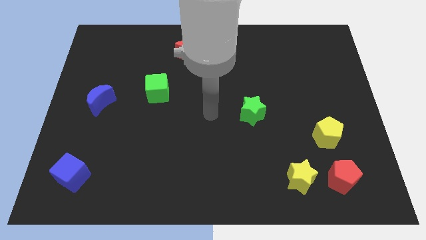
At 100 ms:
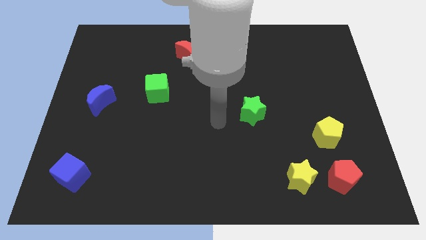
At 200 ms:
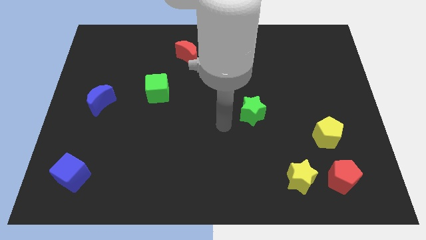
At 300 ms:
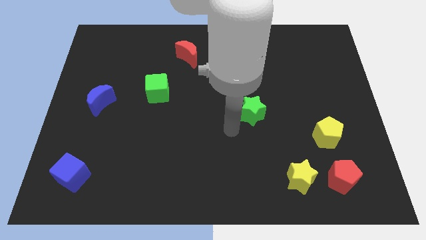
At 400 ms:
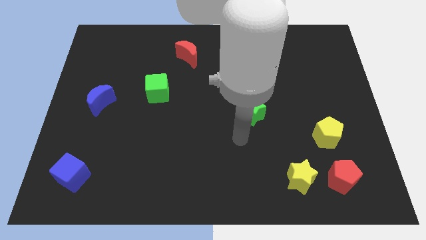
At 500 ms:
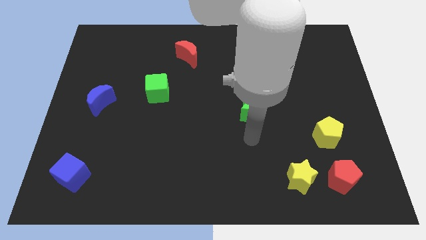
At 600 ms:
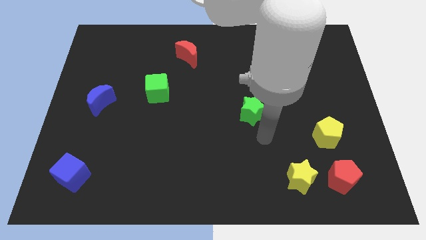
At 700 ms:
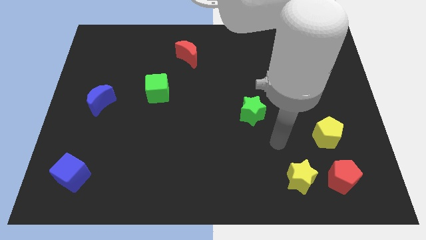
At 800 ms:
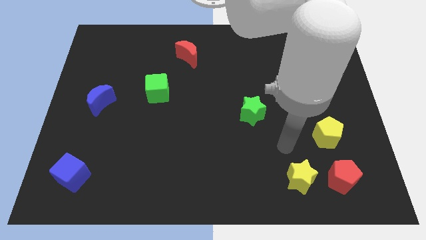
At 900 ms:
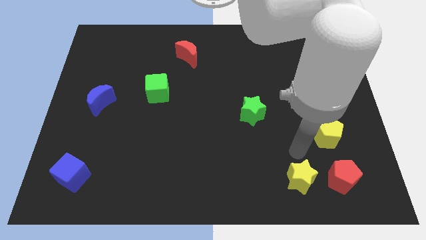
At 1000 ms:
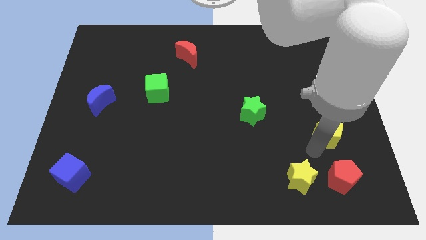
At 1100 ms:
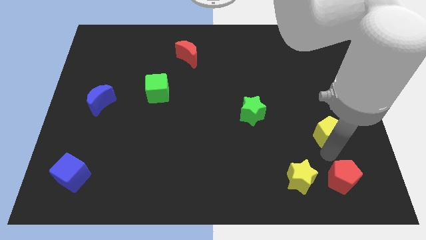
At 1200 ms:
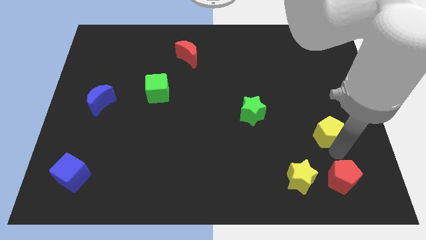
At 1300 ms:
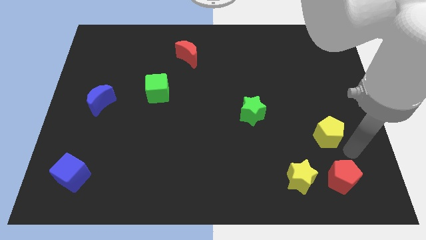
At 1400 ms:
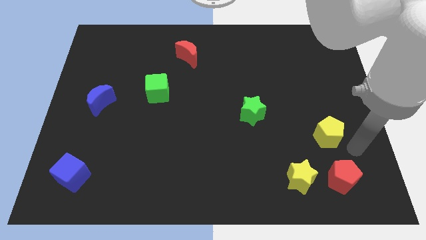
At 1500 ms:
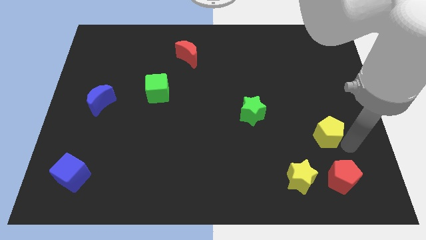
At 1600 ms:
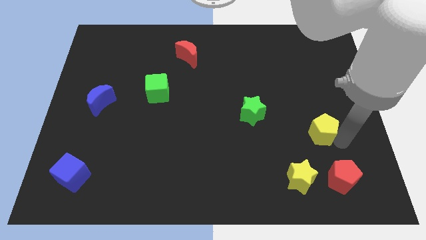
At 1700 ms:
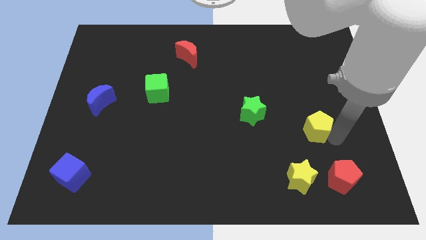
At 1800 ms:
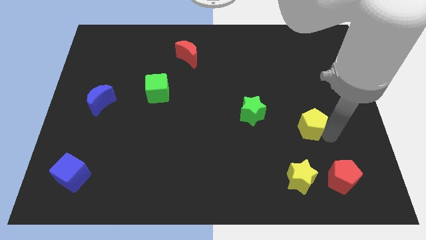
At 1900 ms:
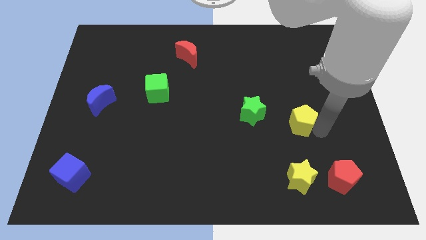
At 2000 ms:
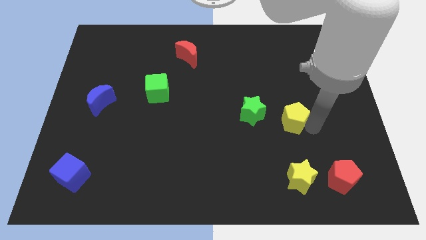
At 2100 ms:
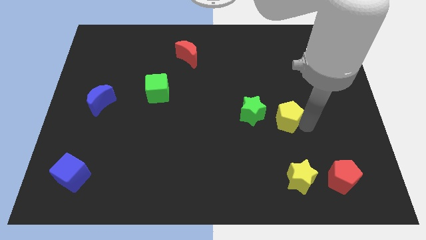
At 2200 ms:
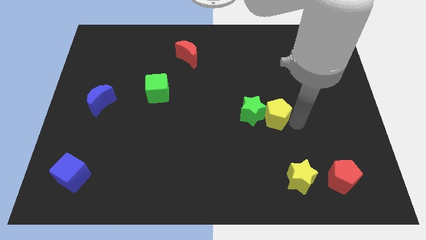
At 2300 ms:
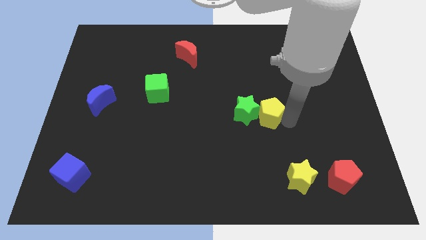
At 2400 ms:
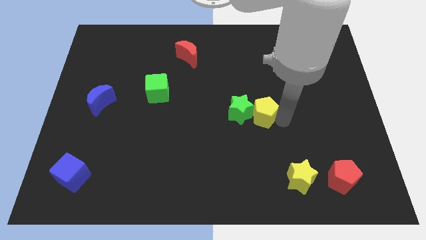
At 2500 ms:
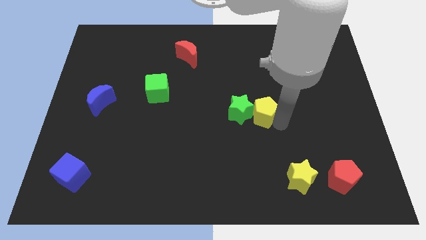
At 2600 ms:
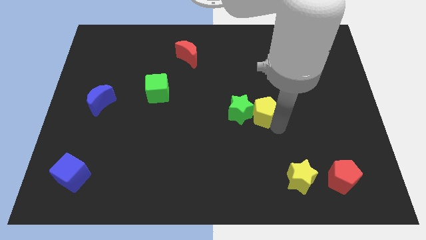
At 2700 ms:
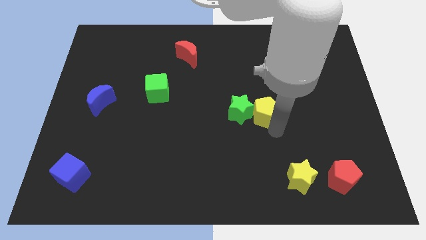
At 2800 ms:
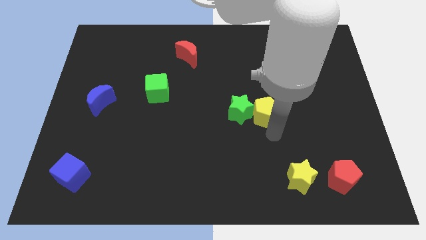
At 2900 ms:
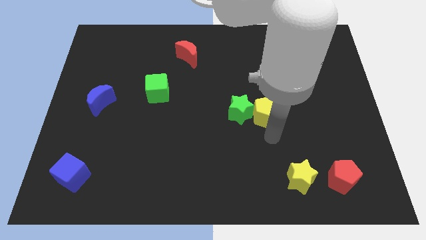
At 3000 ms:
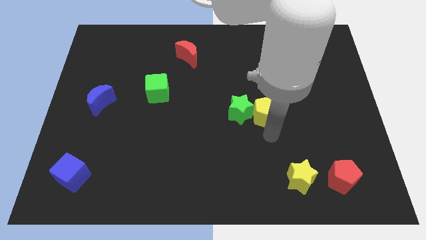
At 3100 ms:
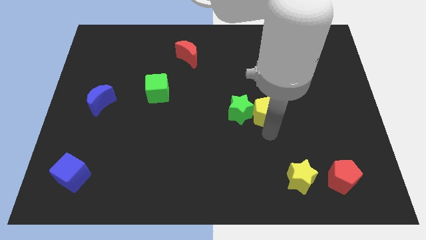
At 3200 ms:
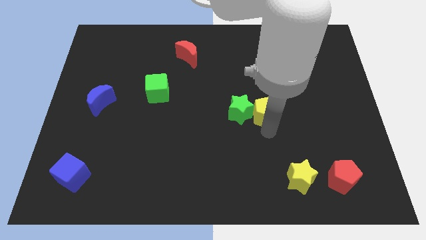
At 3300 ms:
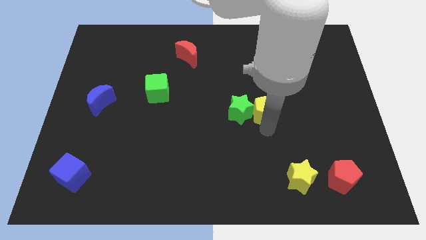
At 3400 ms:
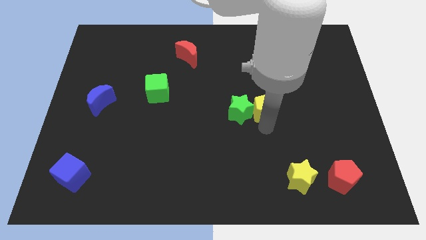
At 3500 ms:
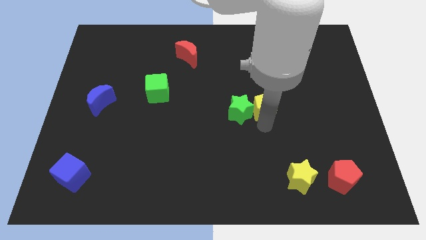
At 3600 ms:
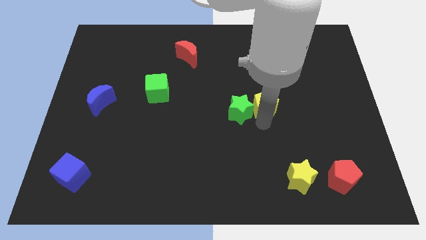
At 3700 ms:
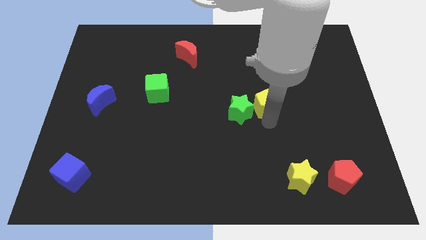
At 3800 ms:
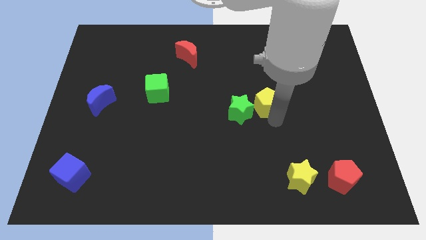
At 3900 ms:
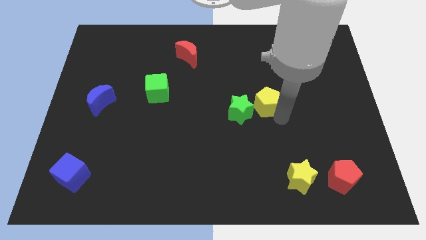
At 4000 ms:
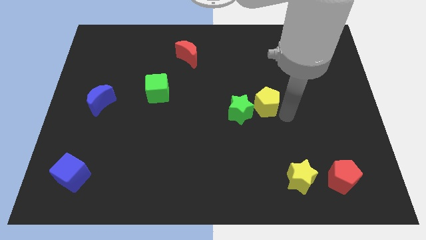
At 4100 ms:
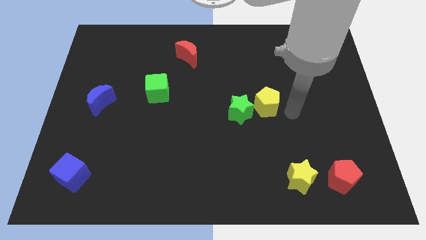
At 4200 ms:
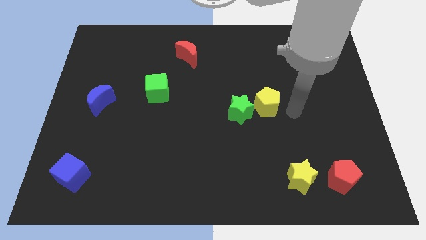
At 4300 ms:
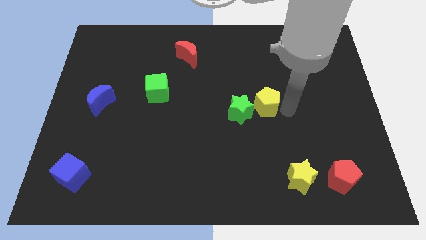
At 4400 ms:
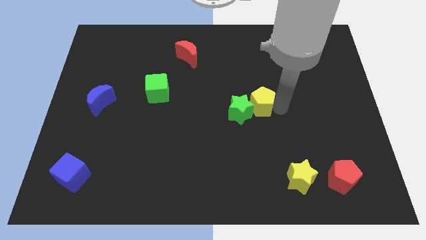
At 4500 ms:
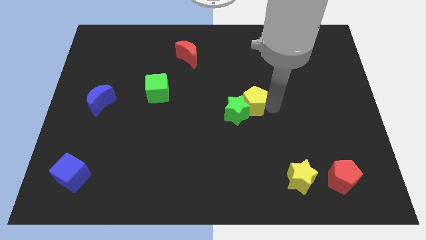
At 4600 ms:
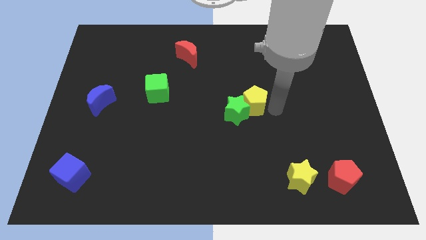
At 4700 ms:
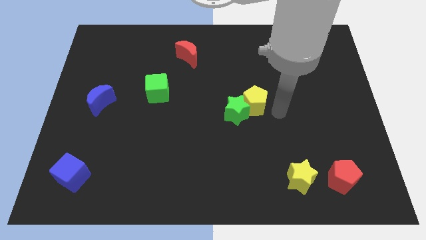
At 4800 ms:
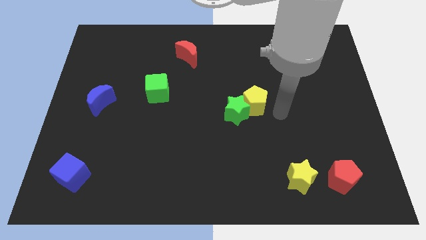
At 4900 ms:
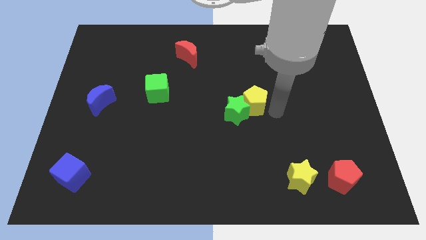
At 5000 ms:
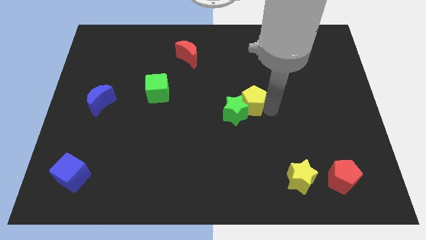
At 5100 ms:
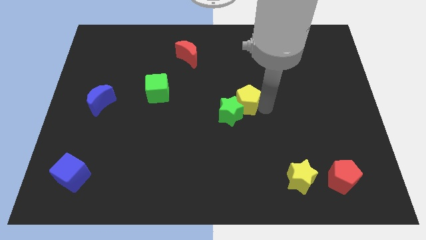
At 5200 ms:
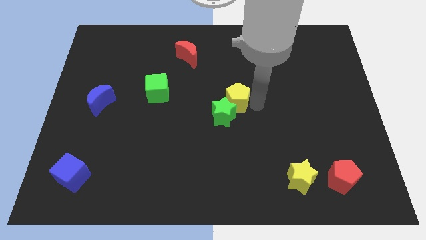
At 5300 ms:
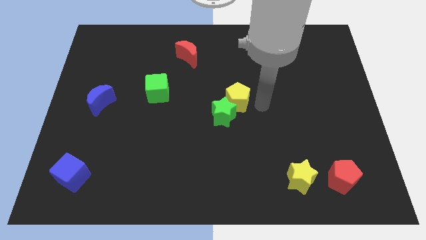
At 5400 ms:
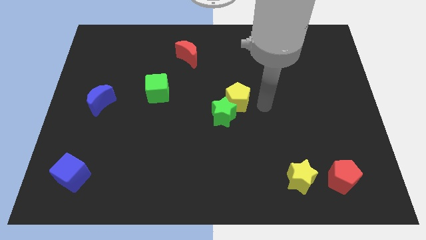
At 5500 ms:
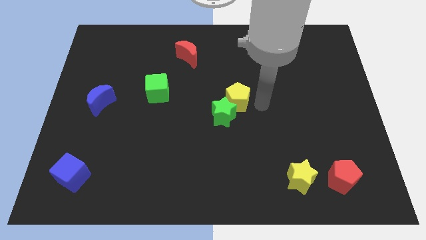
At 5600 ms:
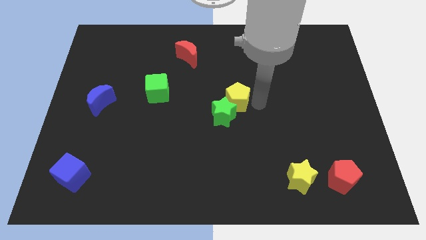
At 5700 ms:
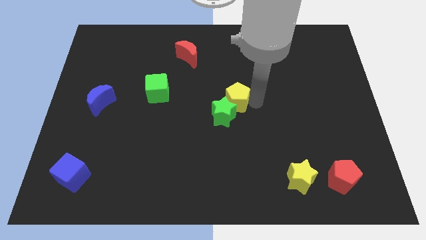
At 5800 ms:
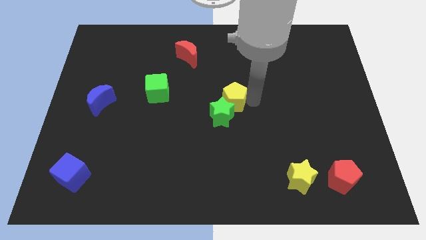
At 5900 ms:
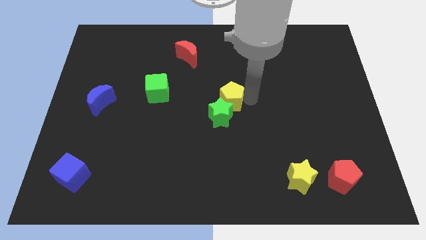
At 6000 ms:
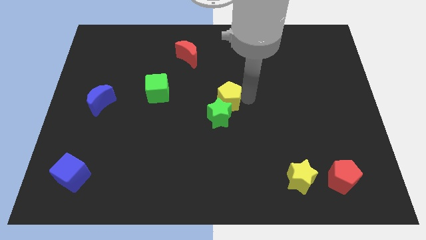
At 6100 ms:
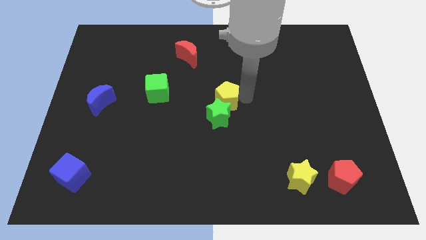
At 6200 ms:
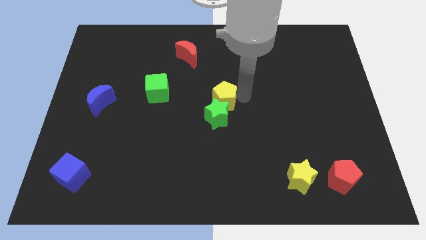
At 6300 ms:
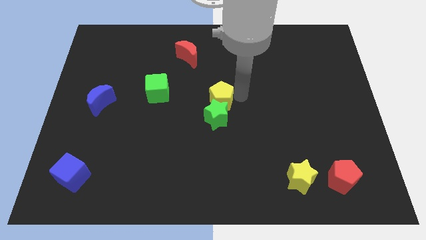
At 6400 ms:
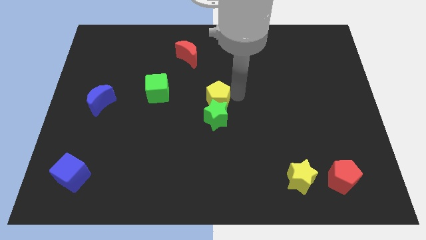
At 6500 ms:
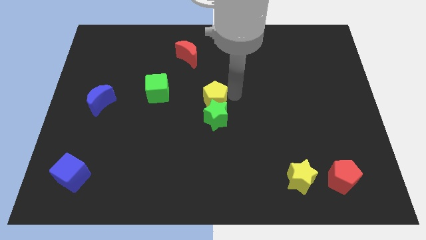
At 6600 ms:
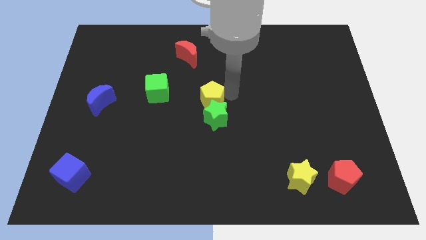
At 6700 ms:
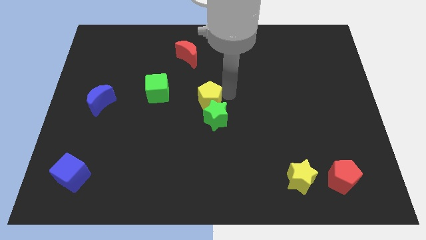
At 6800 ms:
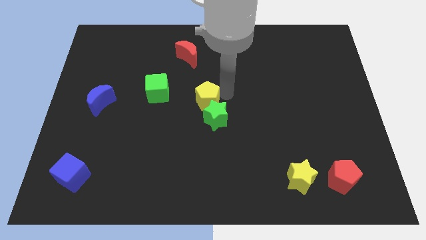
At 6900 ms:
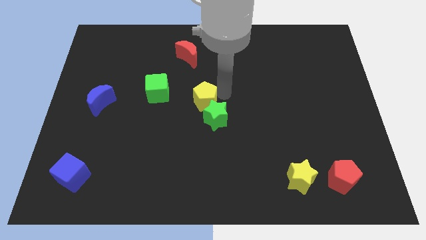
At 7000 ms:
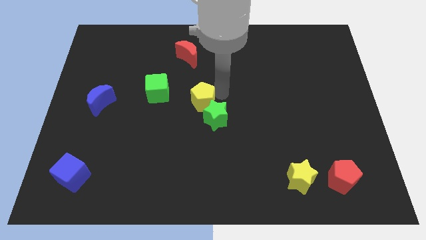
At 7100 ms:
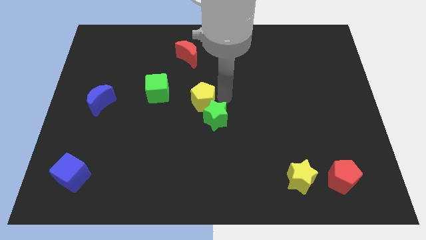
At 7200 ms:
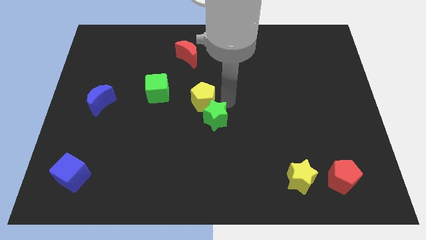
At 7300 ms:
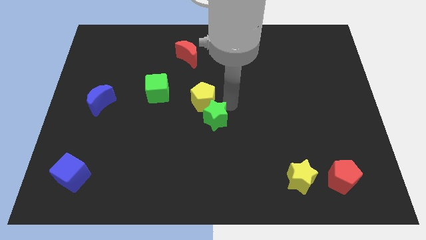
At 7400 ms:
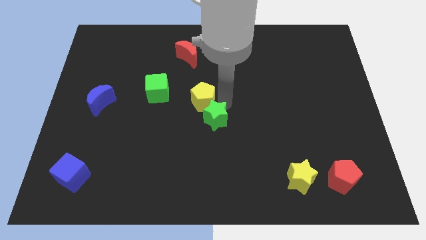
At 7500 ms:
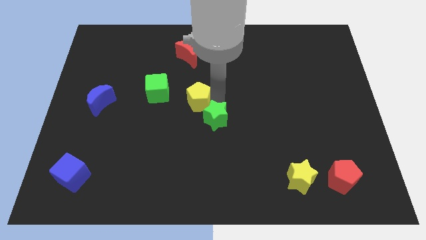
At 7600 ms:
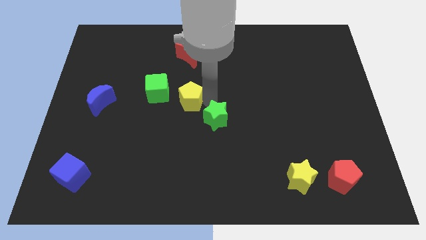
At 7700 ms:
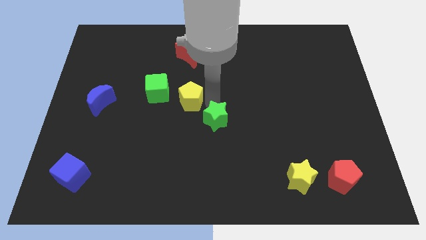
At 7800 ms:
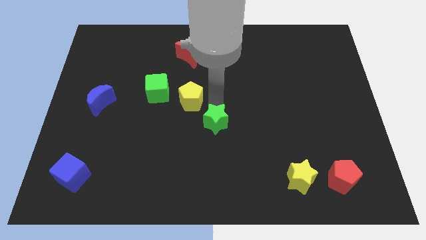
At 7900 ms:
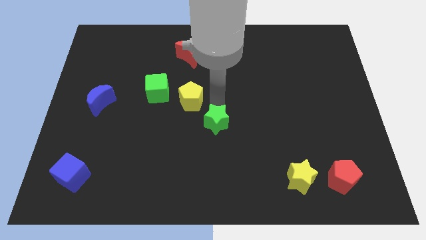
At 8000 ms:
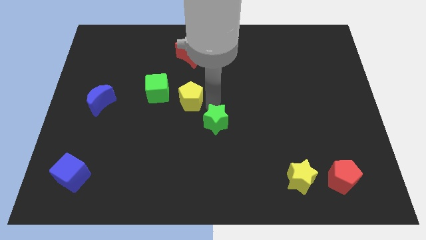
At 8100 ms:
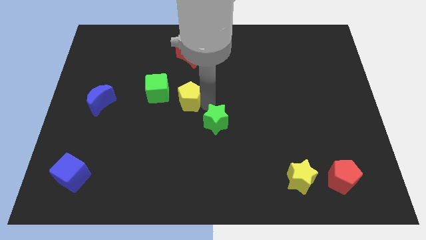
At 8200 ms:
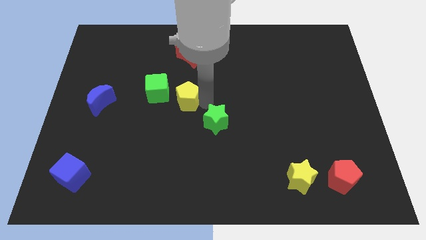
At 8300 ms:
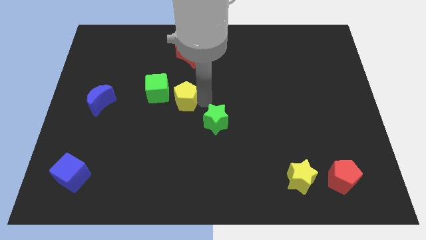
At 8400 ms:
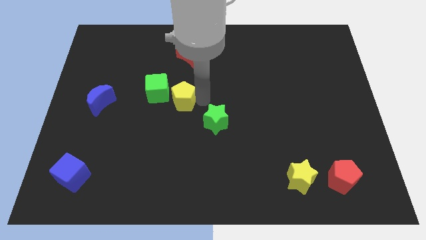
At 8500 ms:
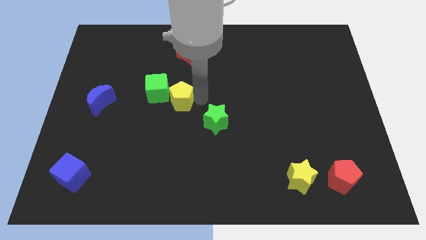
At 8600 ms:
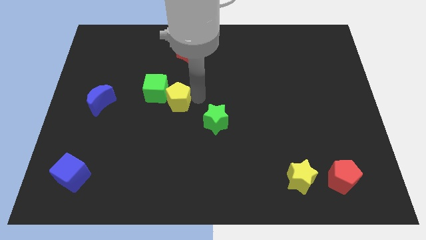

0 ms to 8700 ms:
put the yellow pentagon next to the green cube
